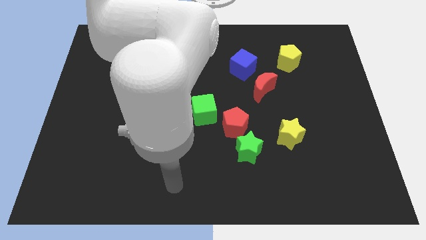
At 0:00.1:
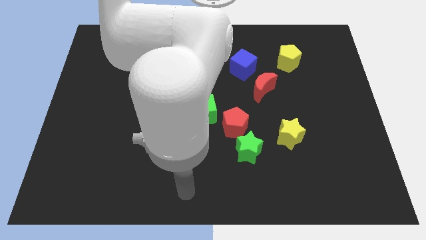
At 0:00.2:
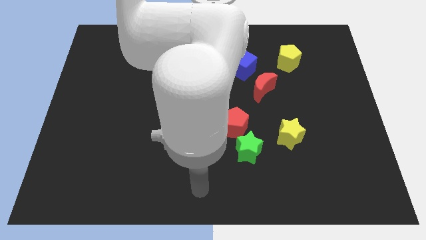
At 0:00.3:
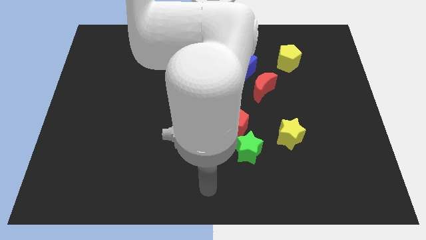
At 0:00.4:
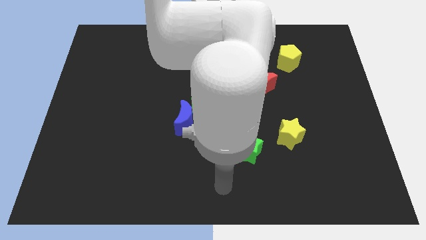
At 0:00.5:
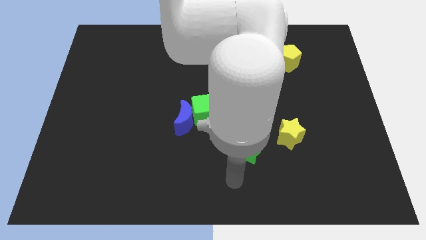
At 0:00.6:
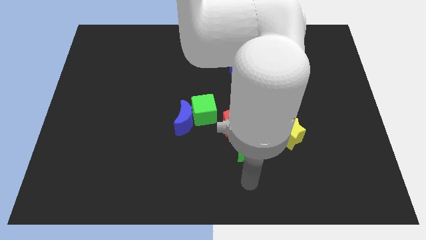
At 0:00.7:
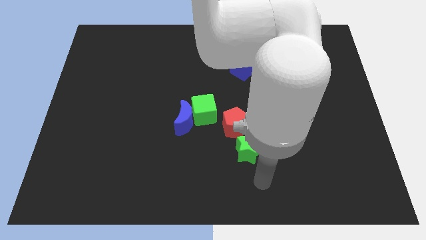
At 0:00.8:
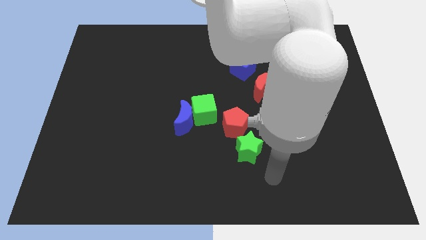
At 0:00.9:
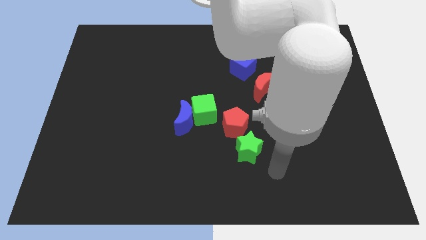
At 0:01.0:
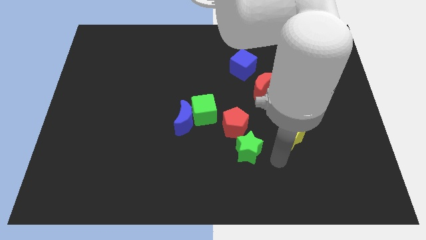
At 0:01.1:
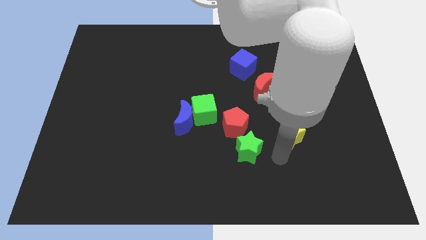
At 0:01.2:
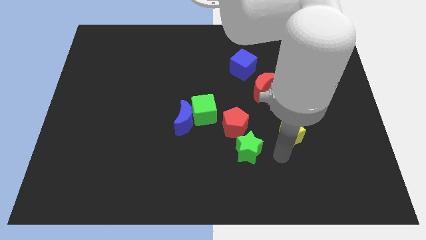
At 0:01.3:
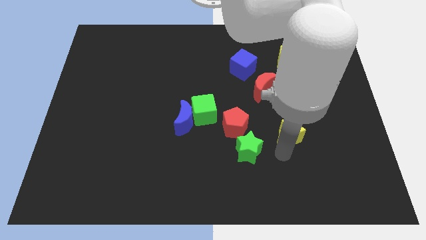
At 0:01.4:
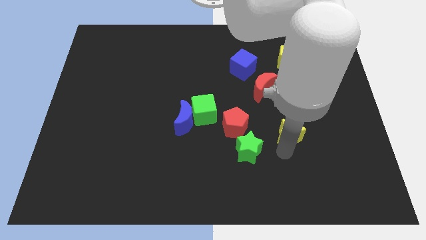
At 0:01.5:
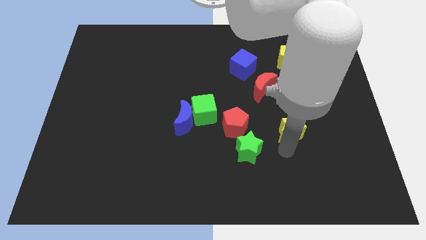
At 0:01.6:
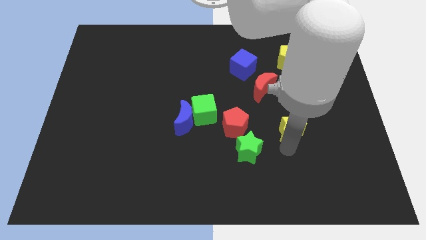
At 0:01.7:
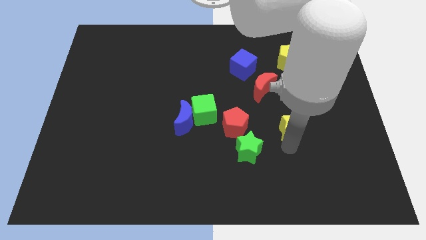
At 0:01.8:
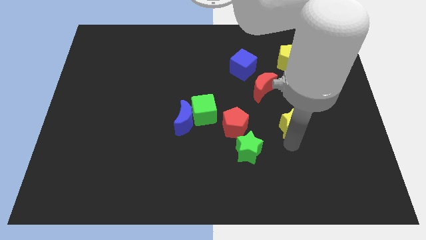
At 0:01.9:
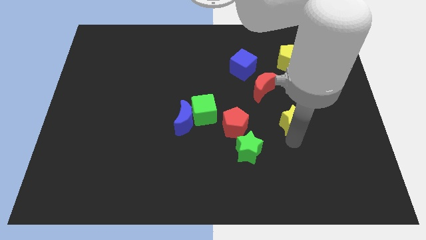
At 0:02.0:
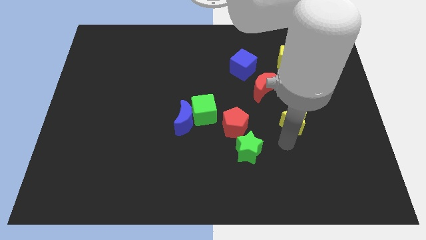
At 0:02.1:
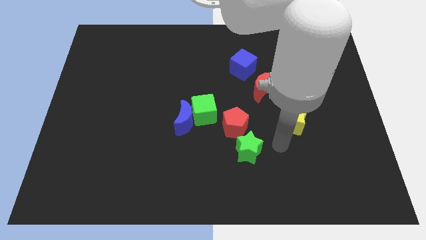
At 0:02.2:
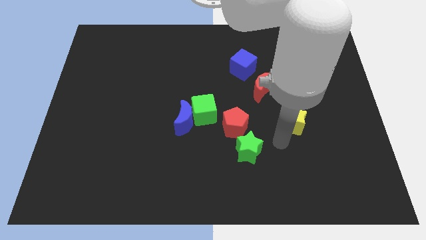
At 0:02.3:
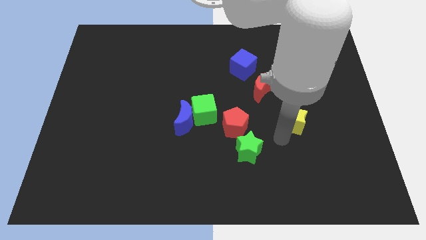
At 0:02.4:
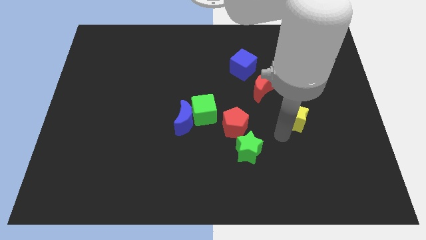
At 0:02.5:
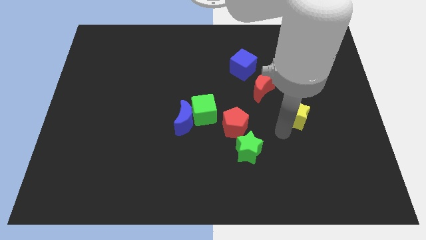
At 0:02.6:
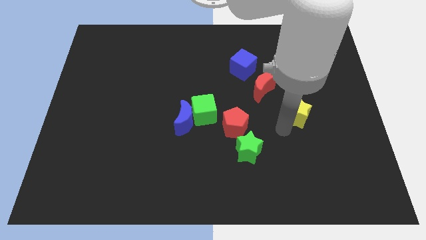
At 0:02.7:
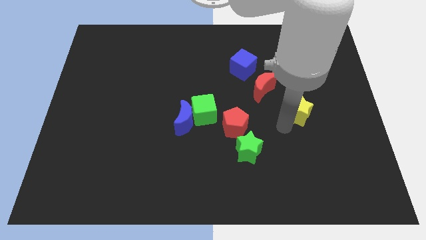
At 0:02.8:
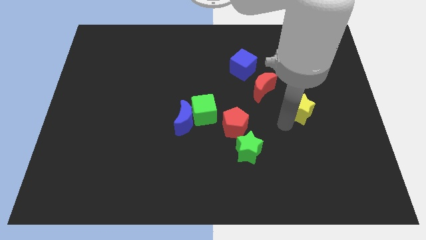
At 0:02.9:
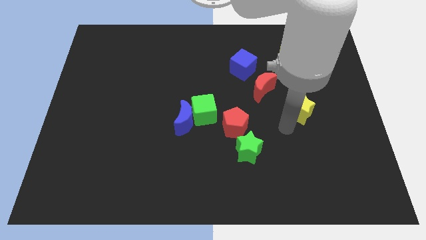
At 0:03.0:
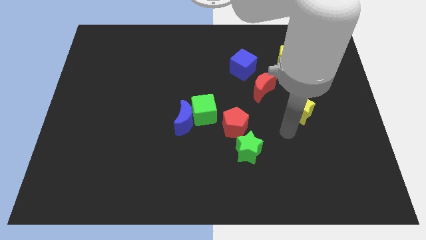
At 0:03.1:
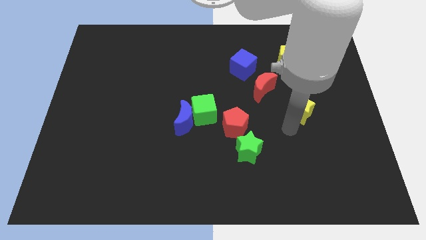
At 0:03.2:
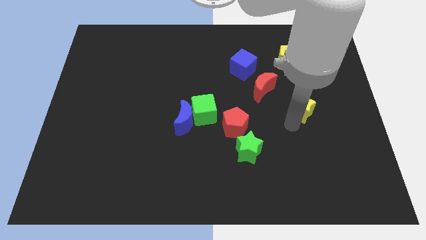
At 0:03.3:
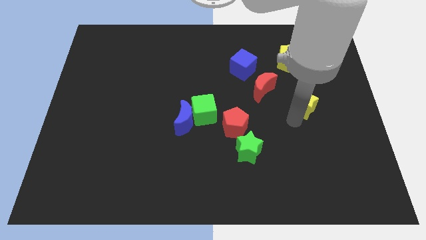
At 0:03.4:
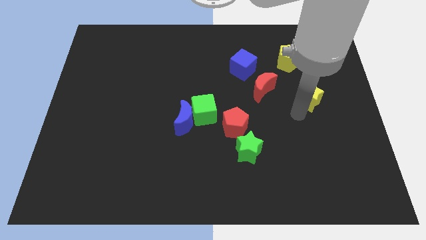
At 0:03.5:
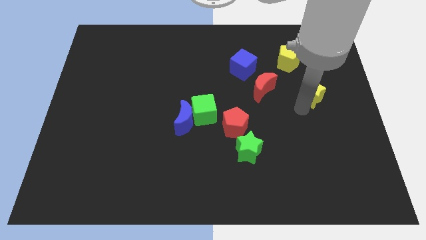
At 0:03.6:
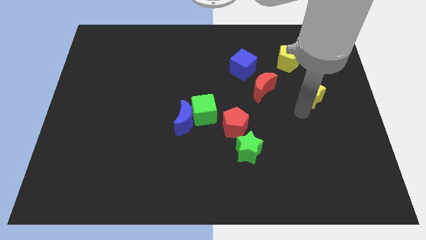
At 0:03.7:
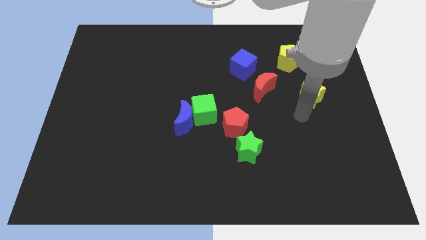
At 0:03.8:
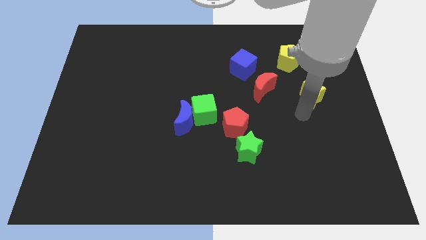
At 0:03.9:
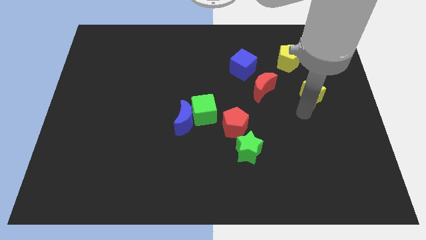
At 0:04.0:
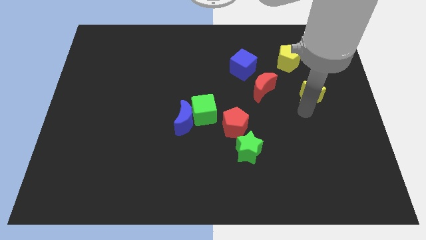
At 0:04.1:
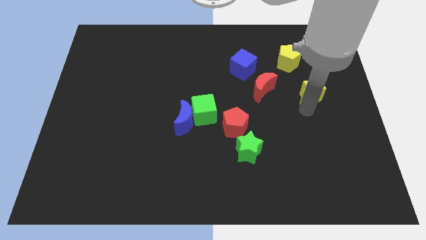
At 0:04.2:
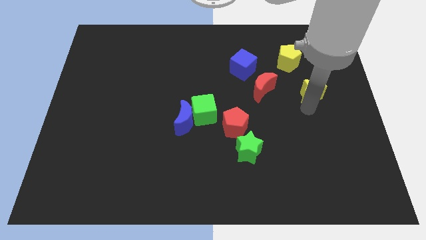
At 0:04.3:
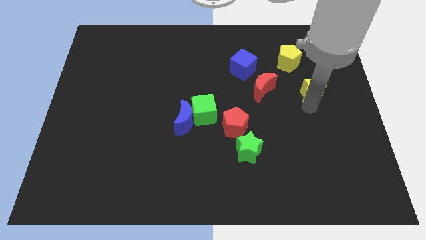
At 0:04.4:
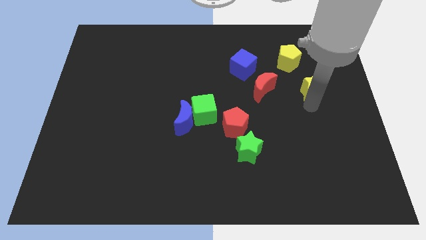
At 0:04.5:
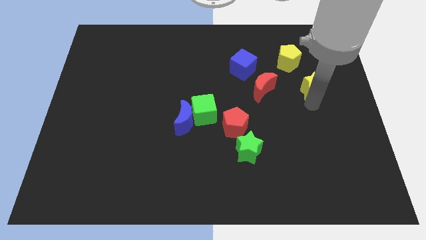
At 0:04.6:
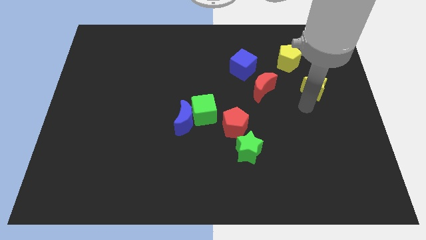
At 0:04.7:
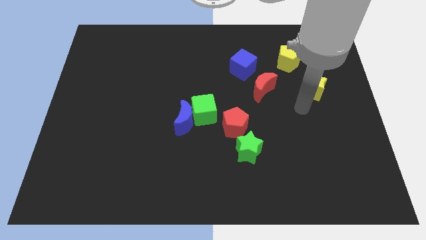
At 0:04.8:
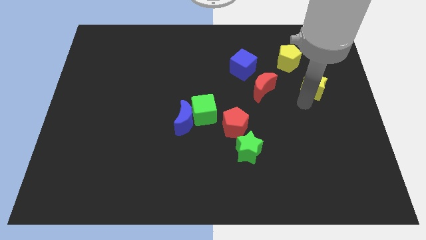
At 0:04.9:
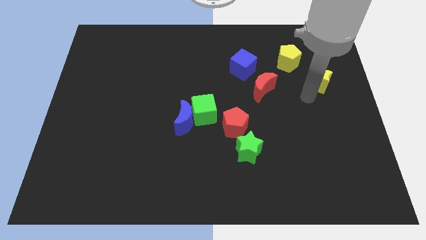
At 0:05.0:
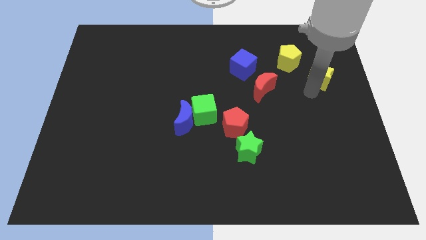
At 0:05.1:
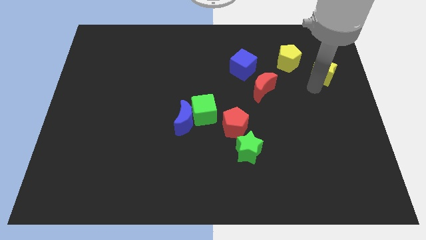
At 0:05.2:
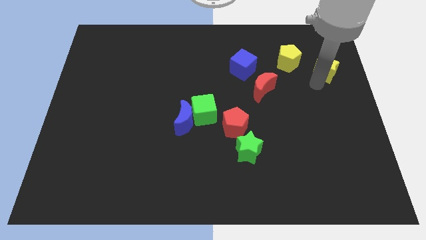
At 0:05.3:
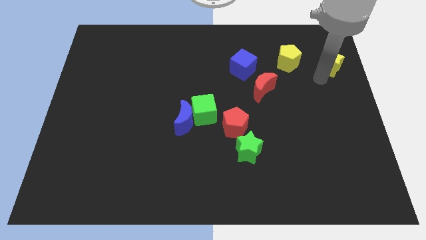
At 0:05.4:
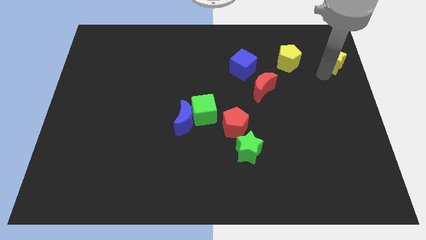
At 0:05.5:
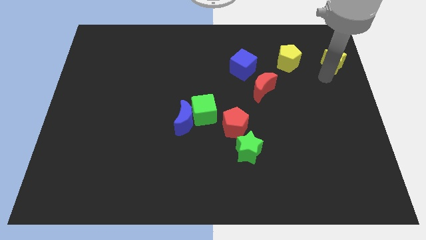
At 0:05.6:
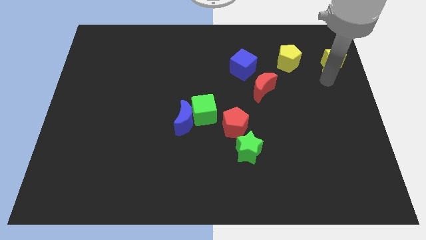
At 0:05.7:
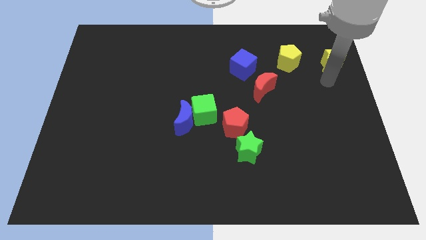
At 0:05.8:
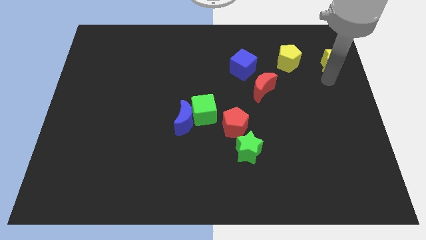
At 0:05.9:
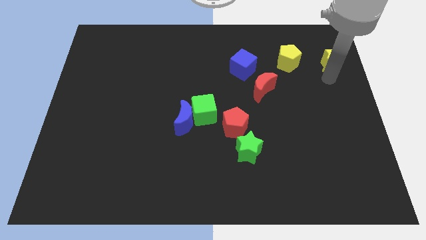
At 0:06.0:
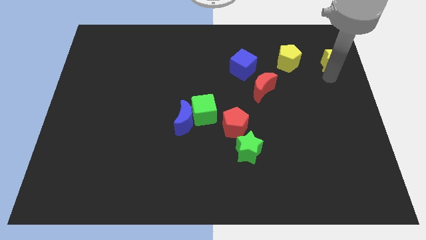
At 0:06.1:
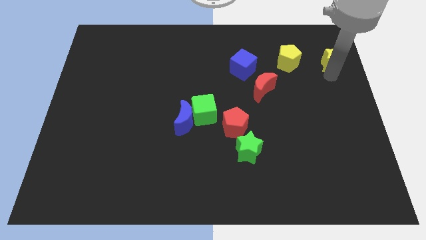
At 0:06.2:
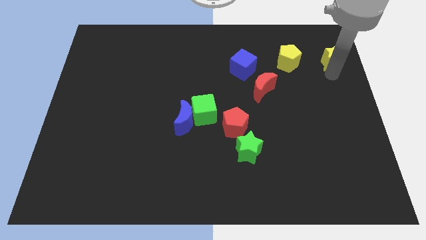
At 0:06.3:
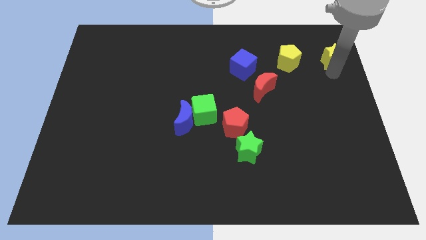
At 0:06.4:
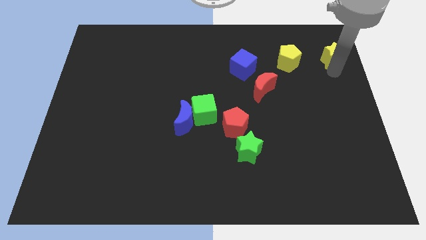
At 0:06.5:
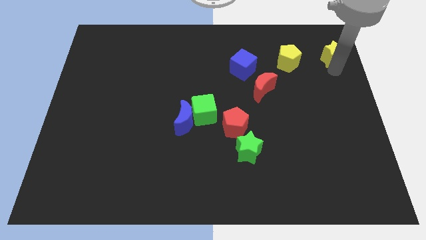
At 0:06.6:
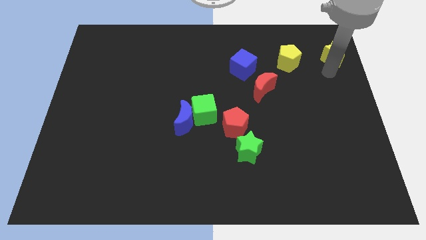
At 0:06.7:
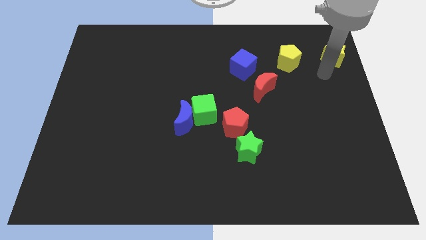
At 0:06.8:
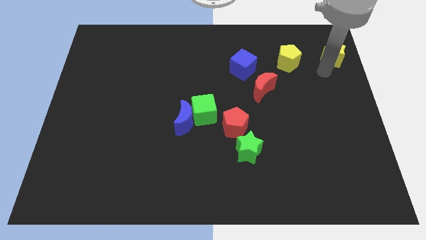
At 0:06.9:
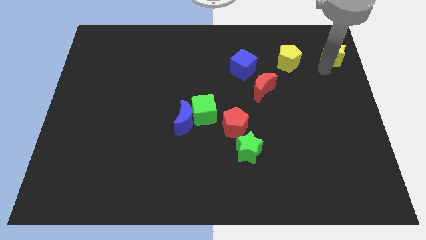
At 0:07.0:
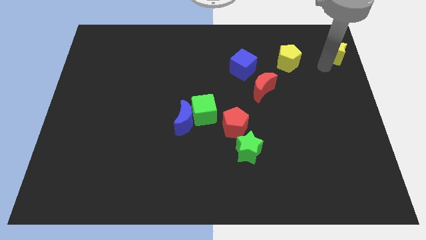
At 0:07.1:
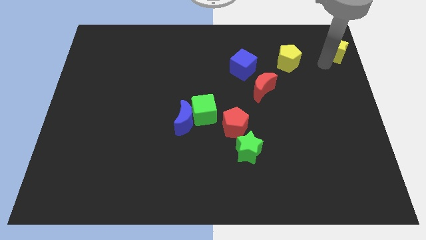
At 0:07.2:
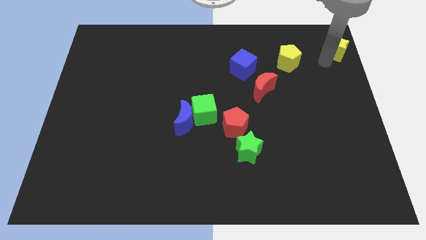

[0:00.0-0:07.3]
put the yellow star to the top right
